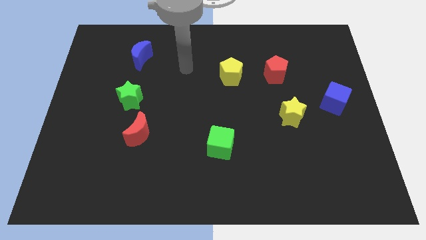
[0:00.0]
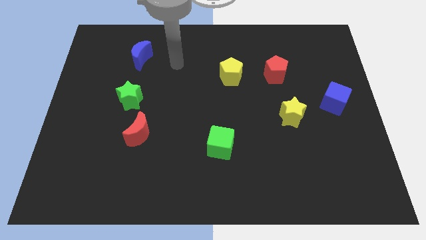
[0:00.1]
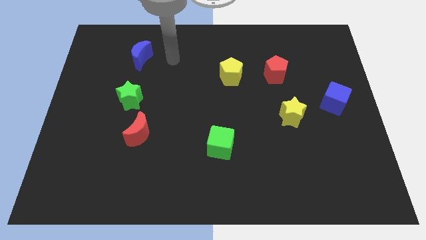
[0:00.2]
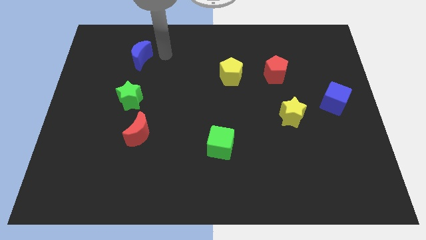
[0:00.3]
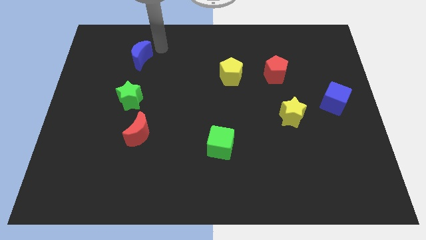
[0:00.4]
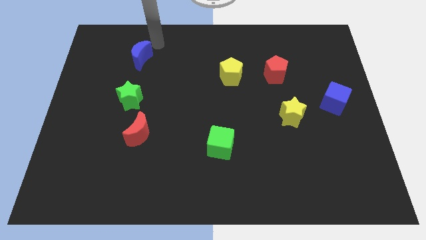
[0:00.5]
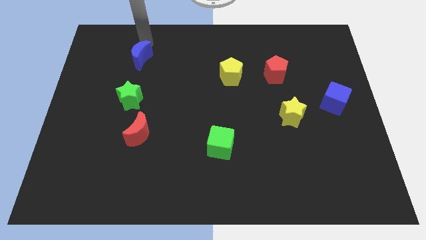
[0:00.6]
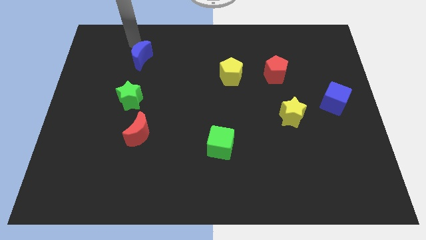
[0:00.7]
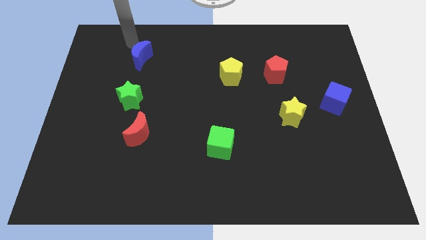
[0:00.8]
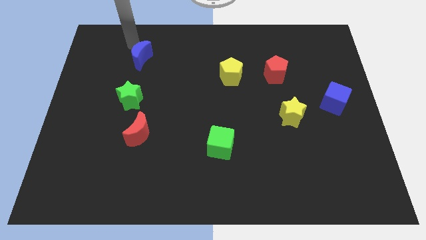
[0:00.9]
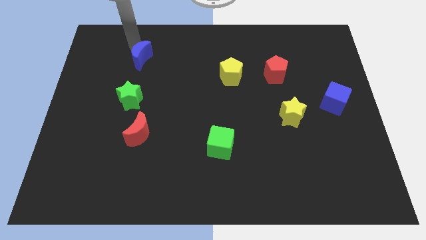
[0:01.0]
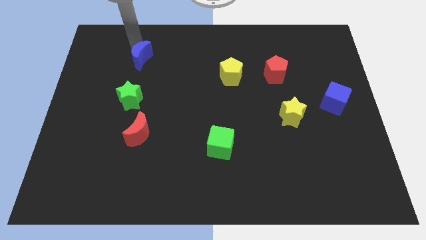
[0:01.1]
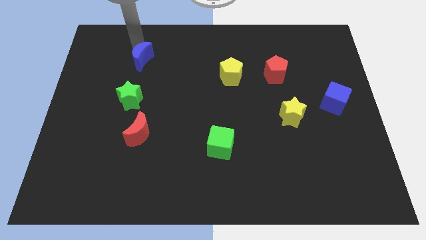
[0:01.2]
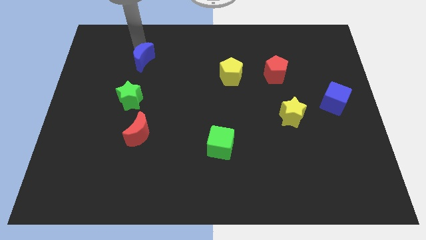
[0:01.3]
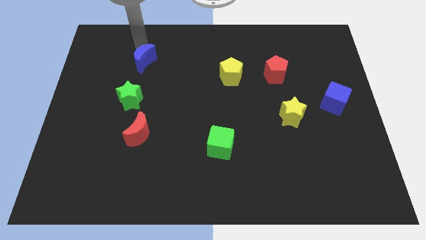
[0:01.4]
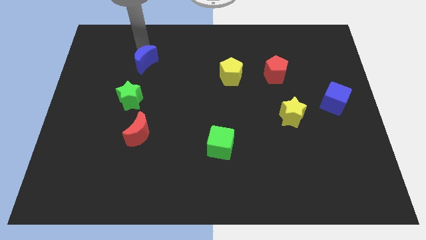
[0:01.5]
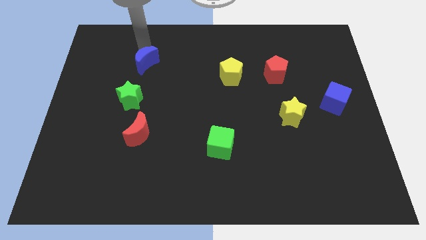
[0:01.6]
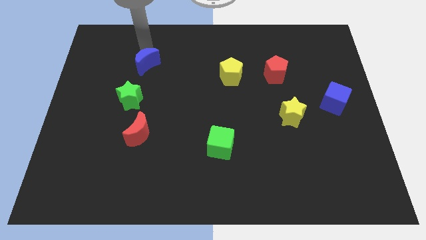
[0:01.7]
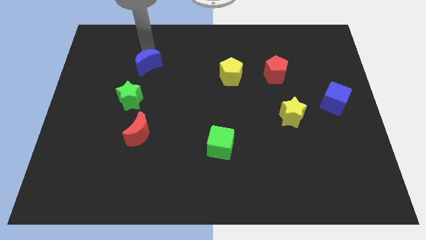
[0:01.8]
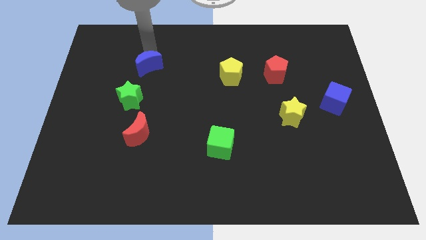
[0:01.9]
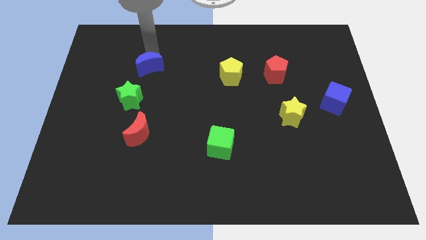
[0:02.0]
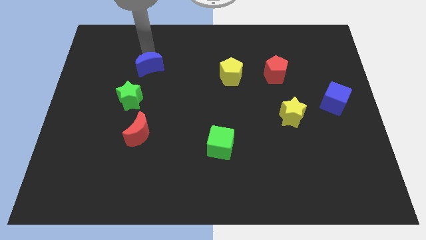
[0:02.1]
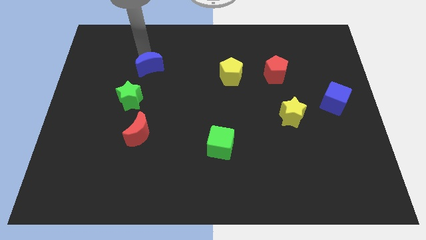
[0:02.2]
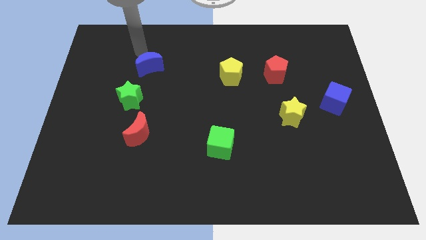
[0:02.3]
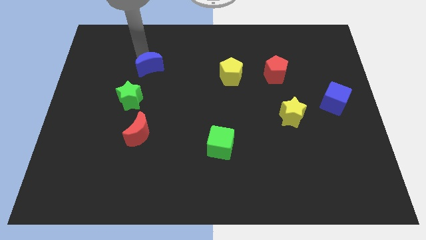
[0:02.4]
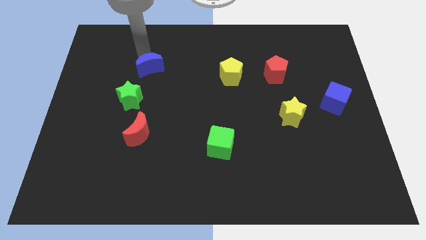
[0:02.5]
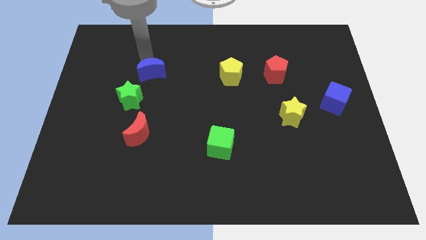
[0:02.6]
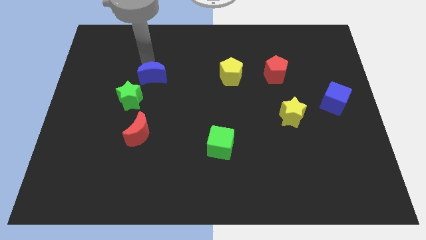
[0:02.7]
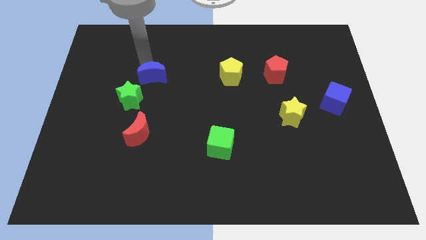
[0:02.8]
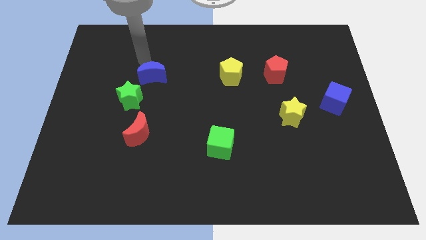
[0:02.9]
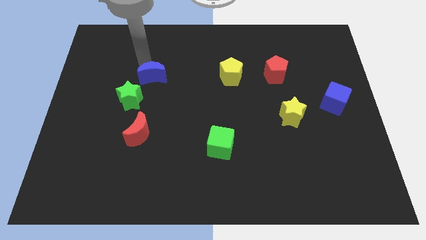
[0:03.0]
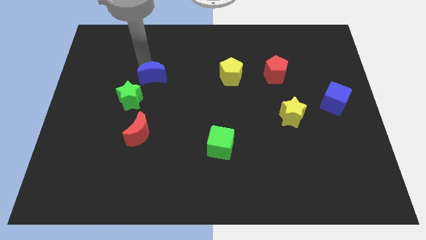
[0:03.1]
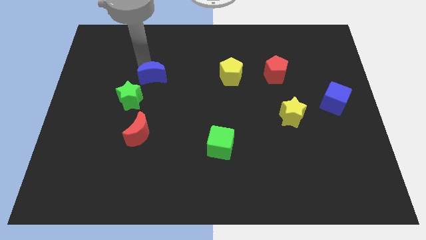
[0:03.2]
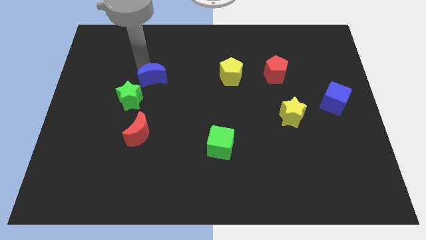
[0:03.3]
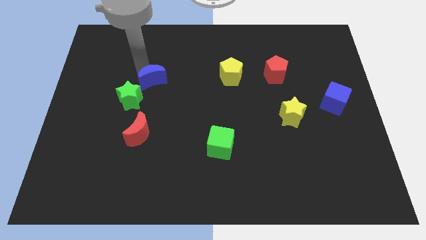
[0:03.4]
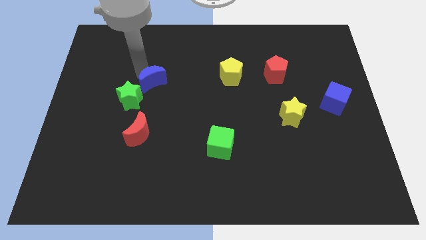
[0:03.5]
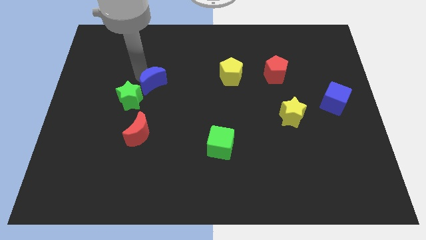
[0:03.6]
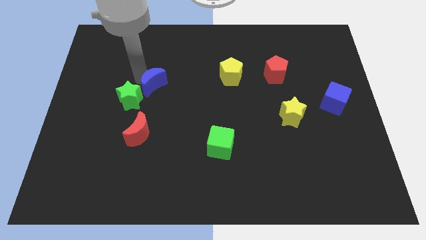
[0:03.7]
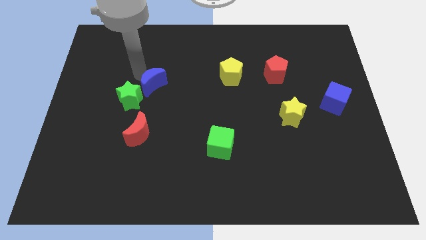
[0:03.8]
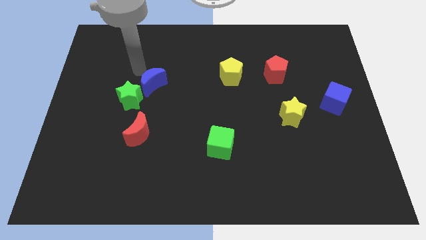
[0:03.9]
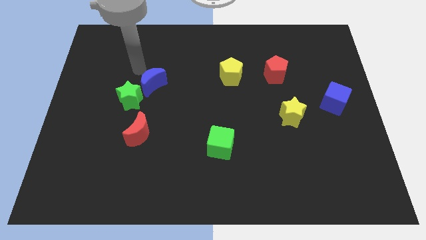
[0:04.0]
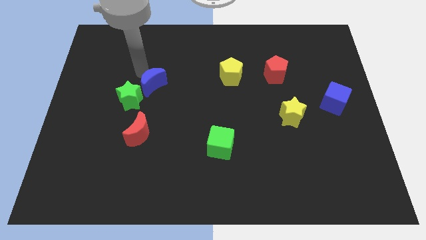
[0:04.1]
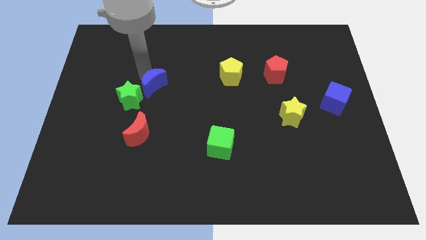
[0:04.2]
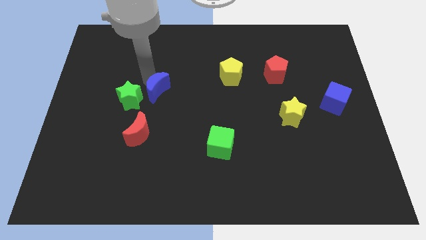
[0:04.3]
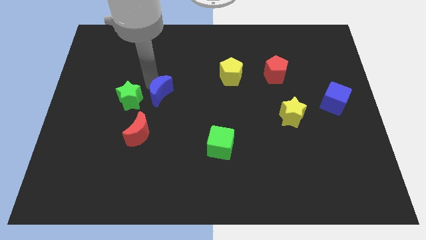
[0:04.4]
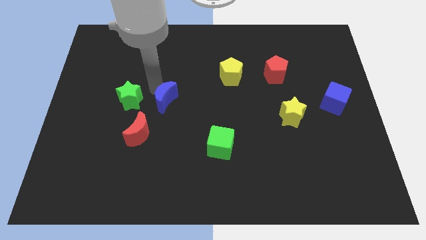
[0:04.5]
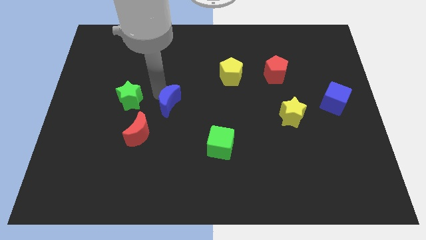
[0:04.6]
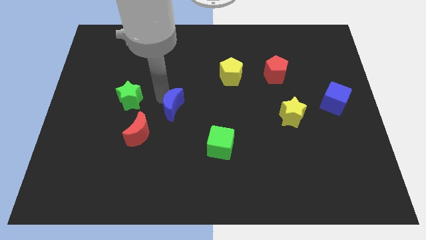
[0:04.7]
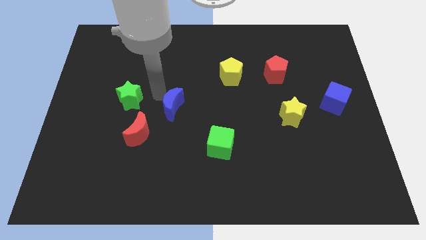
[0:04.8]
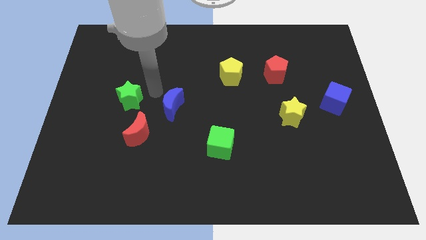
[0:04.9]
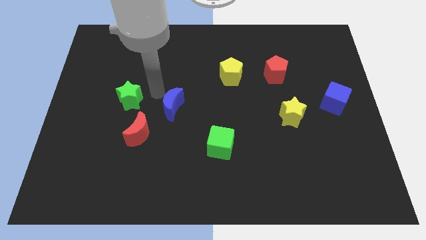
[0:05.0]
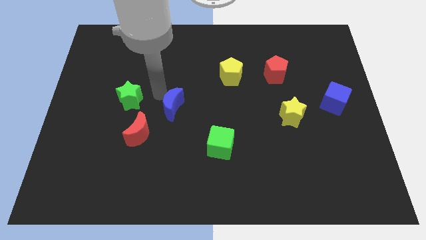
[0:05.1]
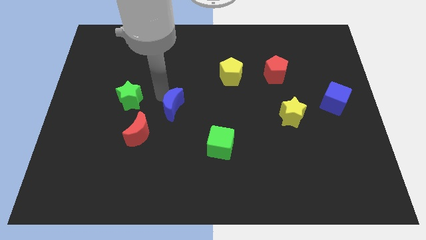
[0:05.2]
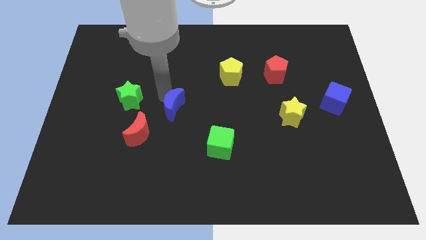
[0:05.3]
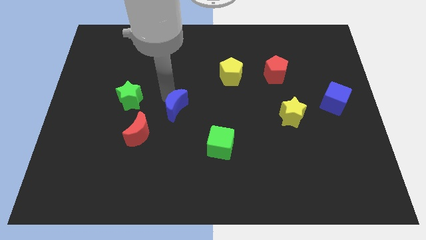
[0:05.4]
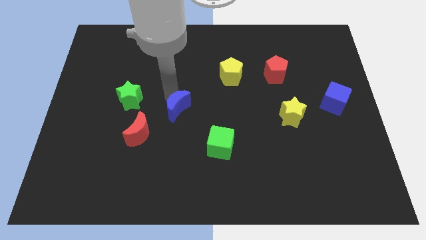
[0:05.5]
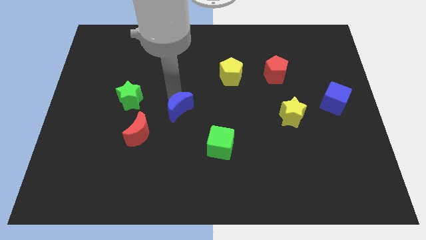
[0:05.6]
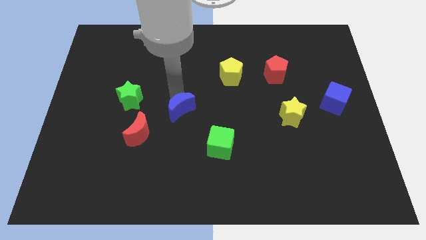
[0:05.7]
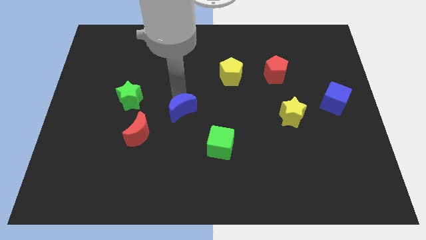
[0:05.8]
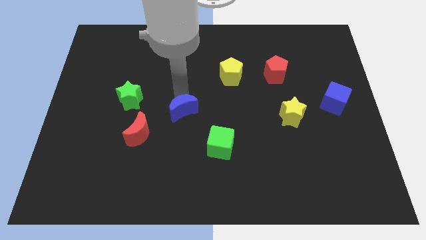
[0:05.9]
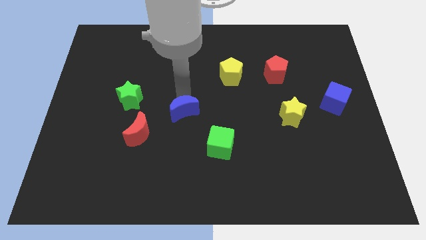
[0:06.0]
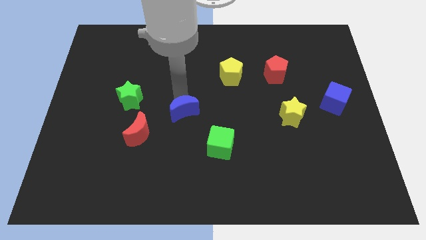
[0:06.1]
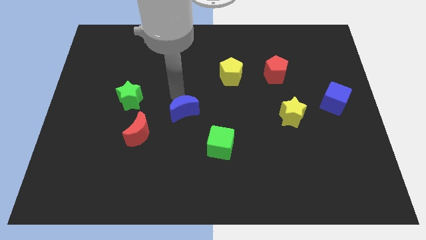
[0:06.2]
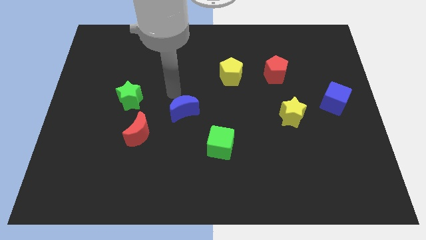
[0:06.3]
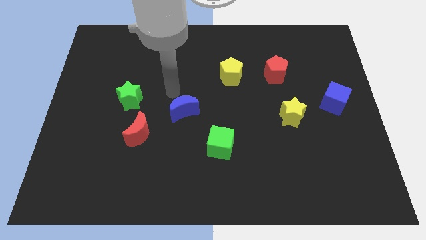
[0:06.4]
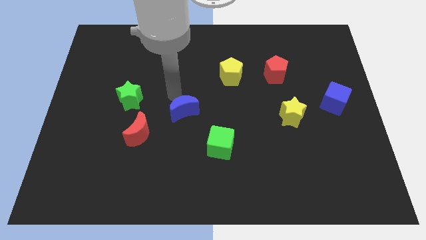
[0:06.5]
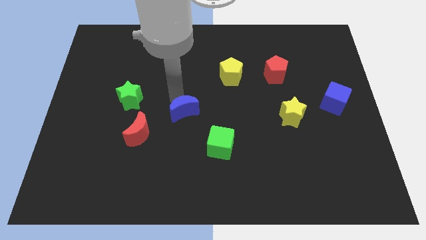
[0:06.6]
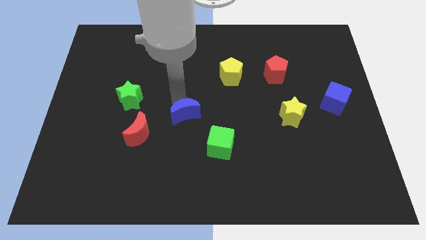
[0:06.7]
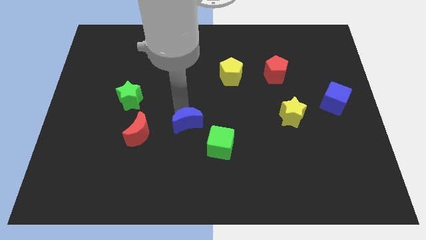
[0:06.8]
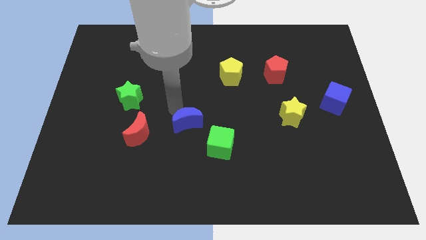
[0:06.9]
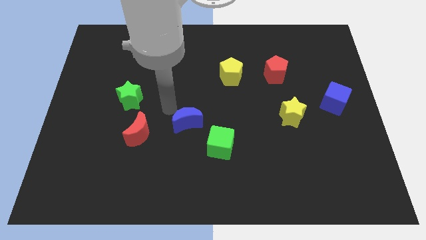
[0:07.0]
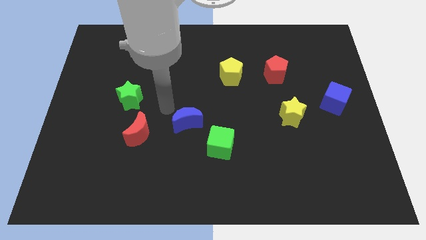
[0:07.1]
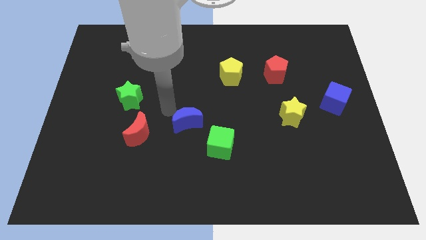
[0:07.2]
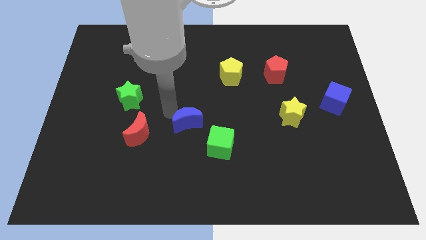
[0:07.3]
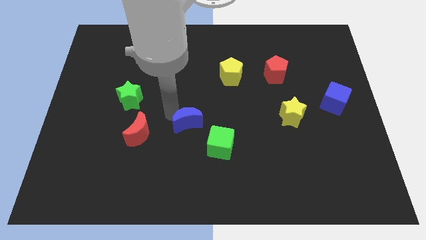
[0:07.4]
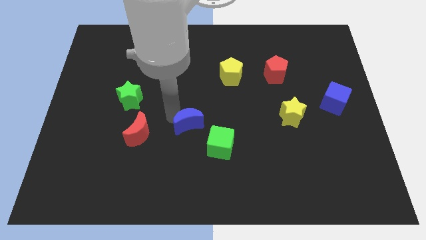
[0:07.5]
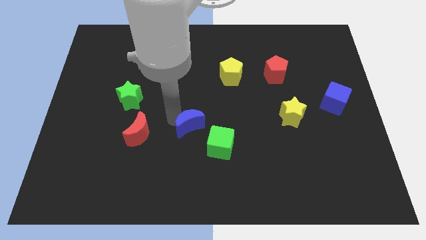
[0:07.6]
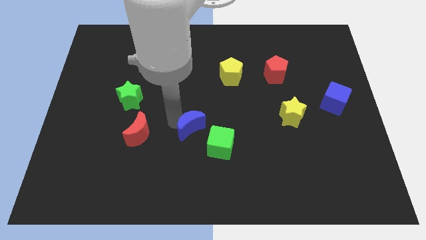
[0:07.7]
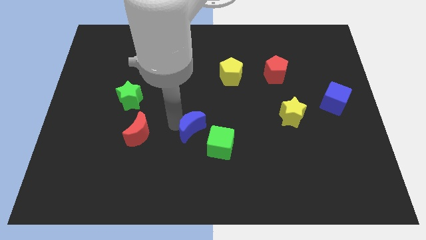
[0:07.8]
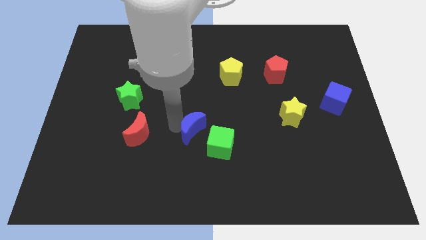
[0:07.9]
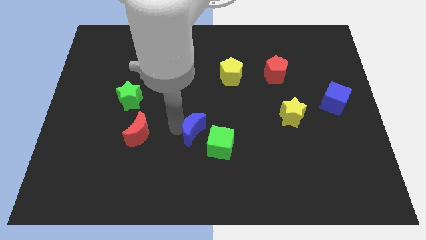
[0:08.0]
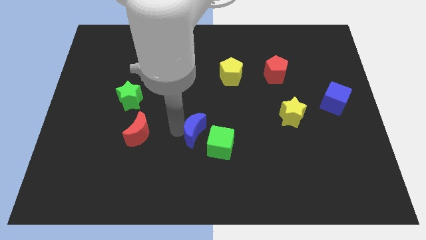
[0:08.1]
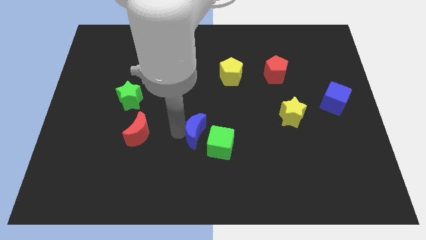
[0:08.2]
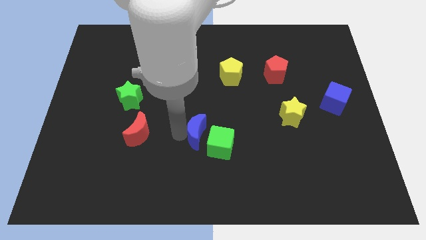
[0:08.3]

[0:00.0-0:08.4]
put the blue moon next to the green cube
